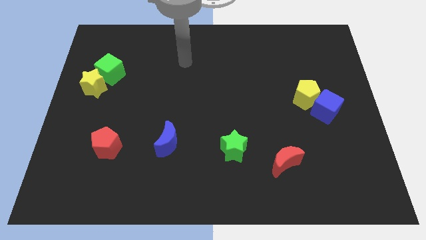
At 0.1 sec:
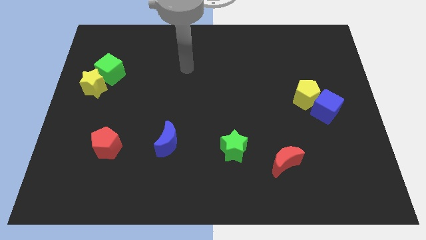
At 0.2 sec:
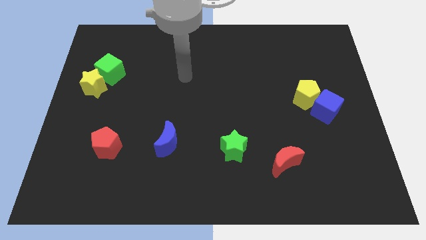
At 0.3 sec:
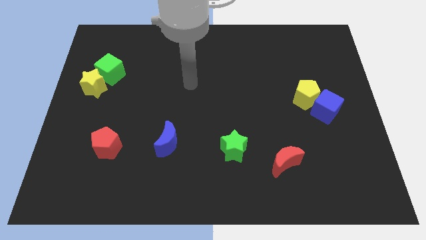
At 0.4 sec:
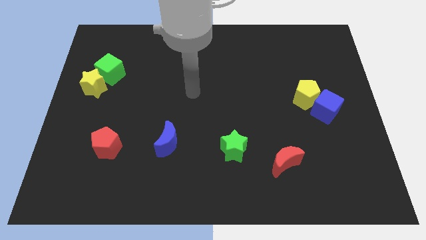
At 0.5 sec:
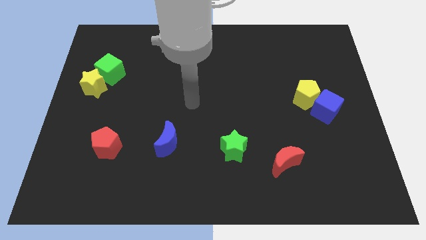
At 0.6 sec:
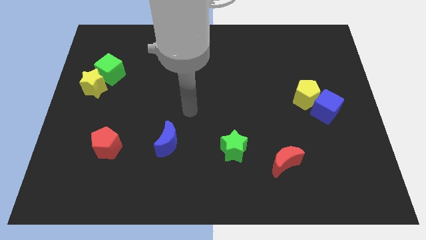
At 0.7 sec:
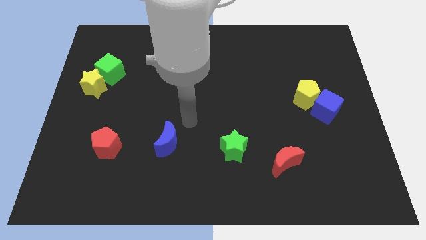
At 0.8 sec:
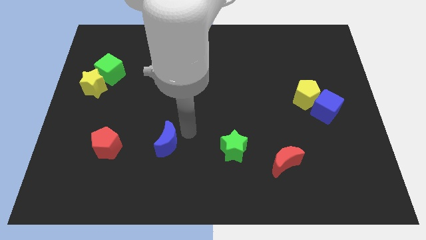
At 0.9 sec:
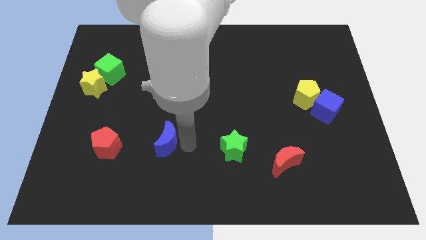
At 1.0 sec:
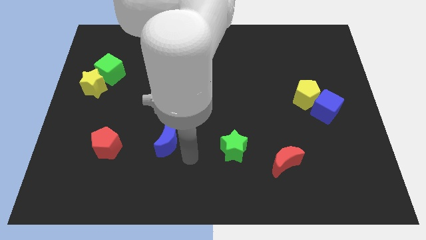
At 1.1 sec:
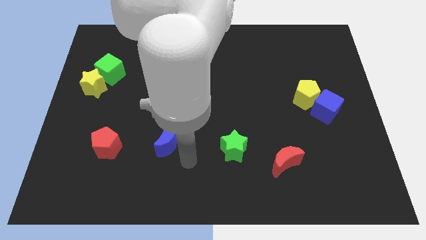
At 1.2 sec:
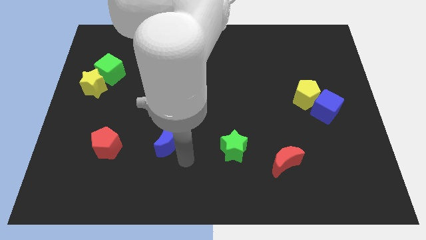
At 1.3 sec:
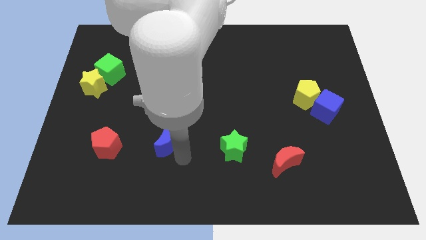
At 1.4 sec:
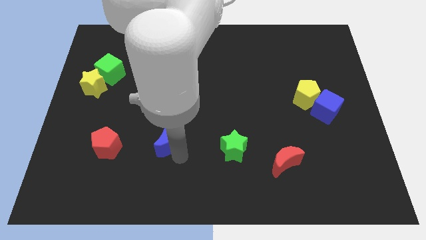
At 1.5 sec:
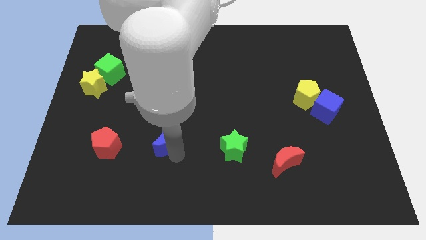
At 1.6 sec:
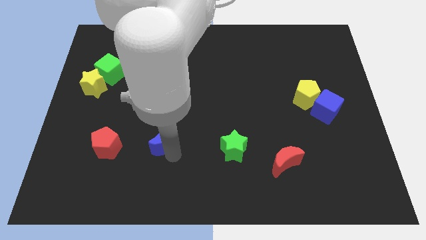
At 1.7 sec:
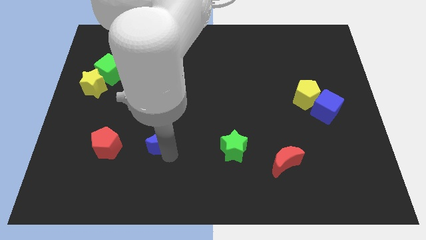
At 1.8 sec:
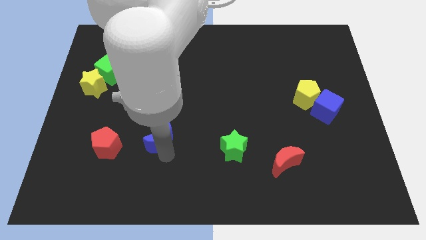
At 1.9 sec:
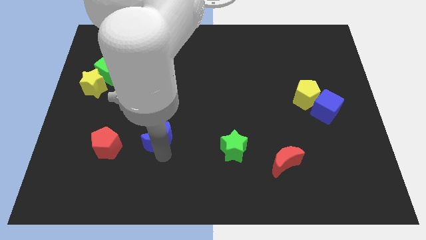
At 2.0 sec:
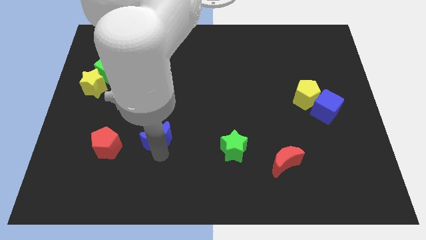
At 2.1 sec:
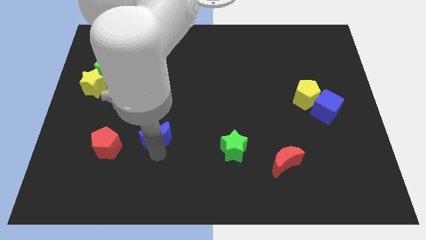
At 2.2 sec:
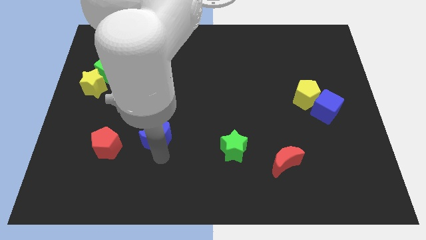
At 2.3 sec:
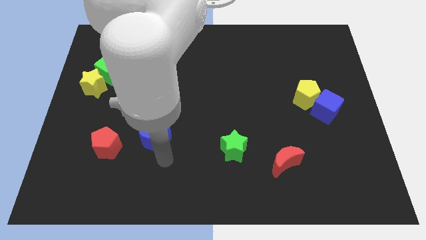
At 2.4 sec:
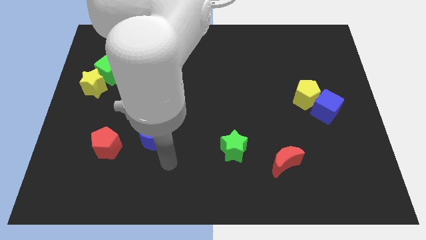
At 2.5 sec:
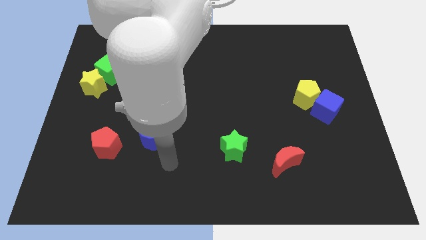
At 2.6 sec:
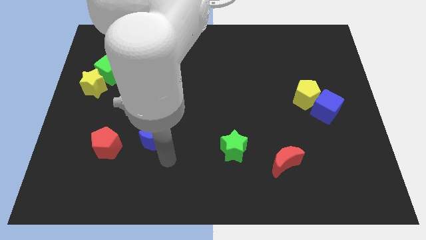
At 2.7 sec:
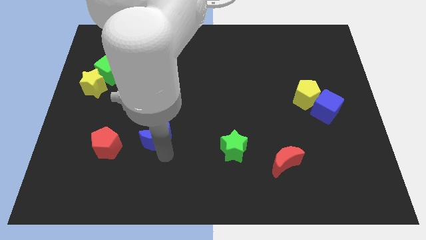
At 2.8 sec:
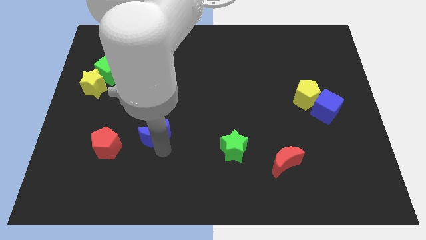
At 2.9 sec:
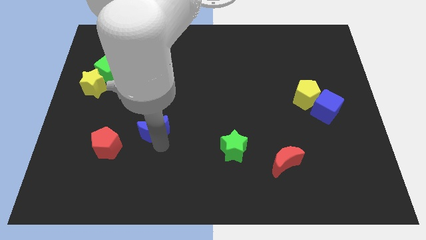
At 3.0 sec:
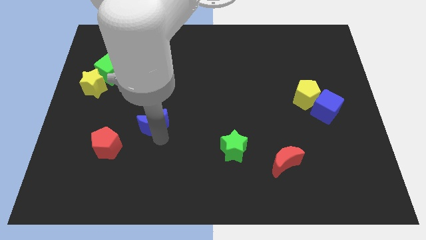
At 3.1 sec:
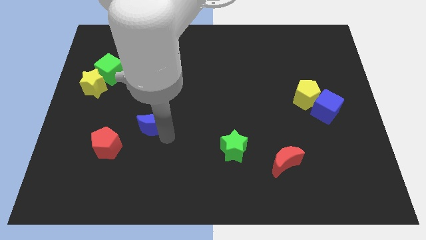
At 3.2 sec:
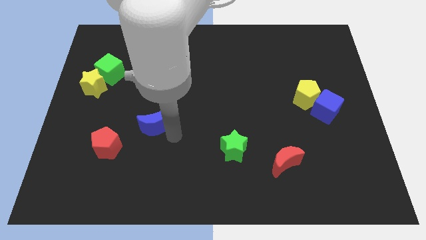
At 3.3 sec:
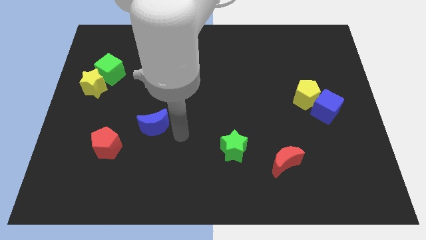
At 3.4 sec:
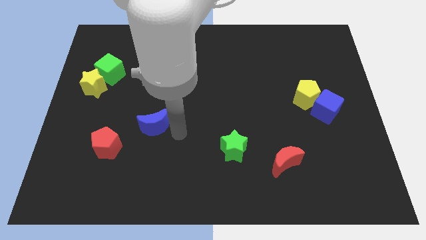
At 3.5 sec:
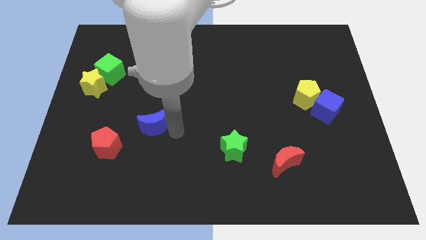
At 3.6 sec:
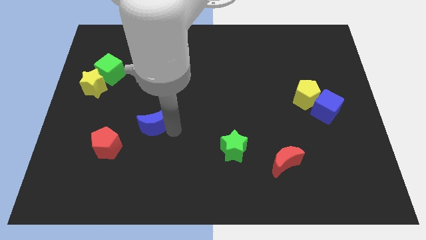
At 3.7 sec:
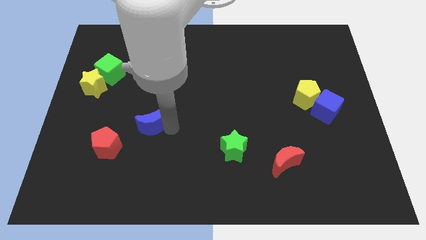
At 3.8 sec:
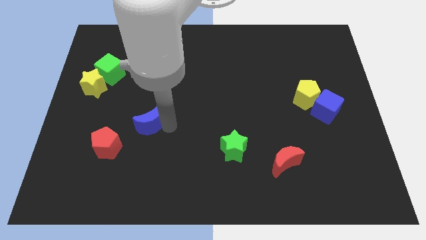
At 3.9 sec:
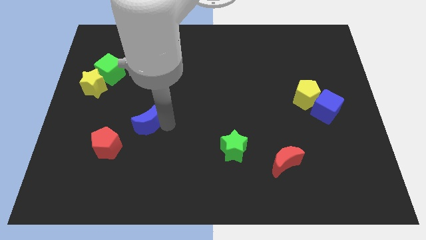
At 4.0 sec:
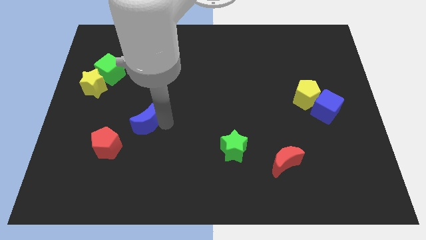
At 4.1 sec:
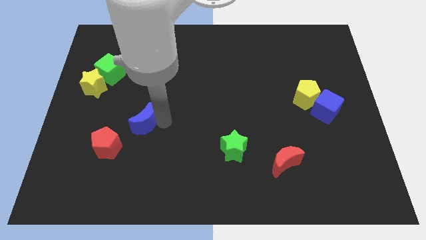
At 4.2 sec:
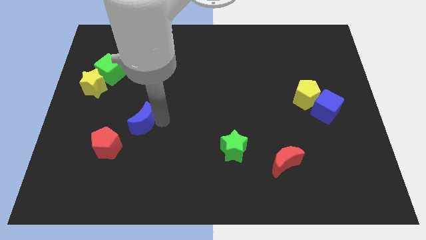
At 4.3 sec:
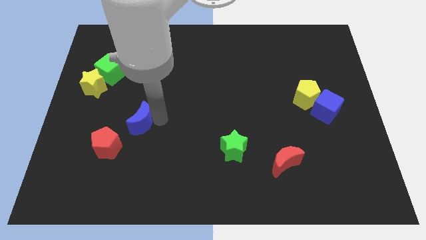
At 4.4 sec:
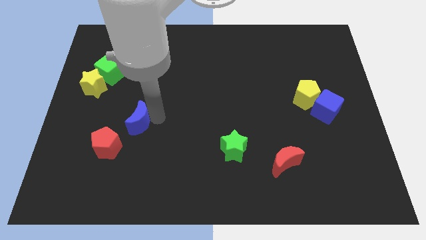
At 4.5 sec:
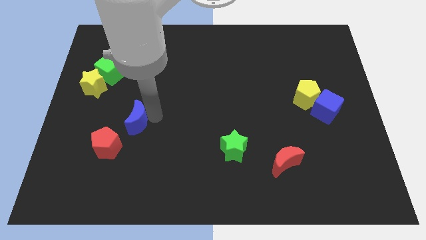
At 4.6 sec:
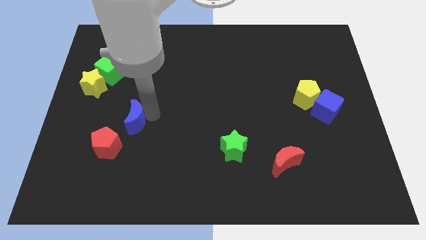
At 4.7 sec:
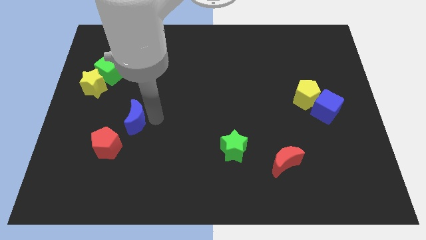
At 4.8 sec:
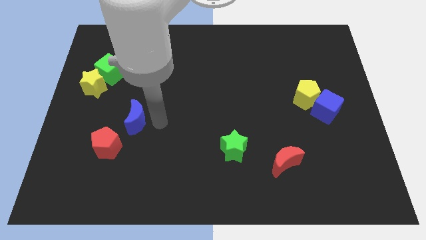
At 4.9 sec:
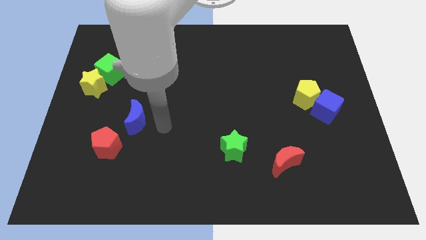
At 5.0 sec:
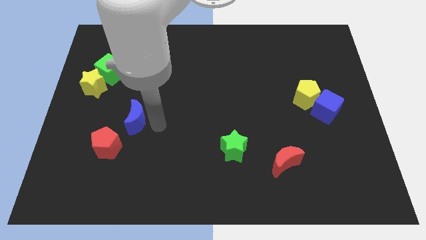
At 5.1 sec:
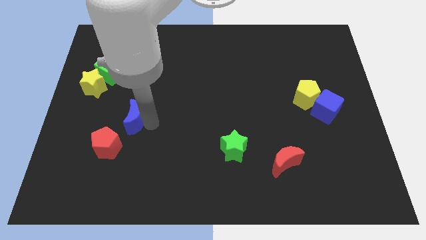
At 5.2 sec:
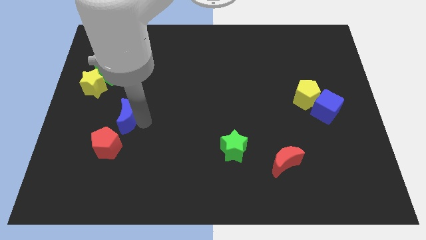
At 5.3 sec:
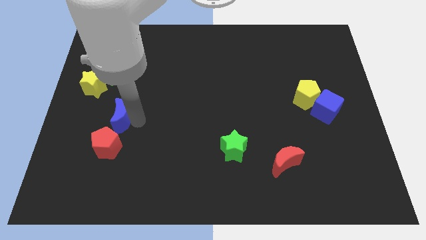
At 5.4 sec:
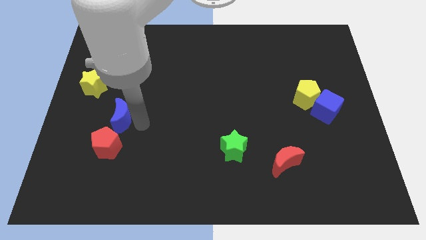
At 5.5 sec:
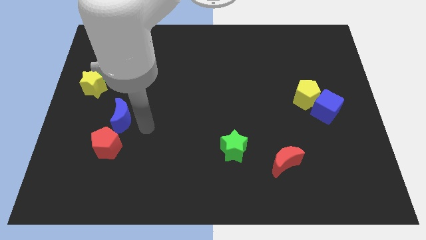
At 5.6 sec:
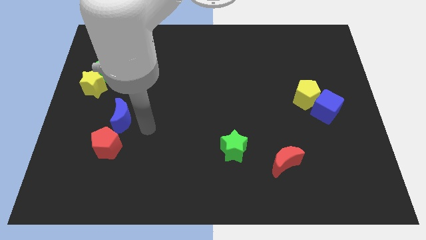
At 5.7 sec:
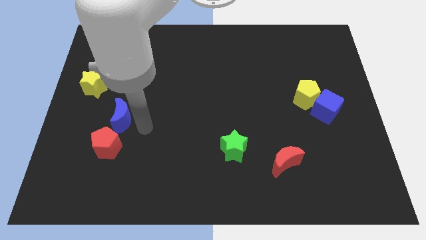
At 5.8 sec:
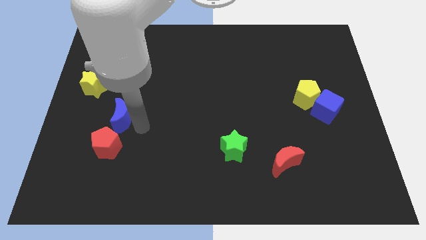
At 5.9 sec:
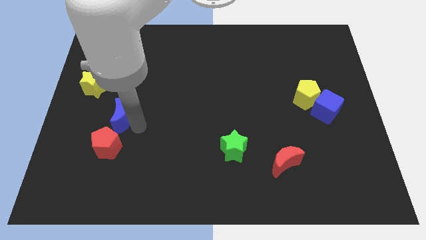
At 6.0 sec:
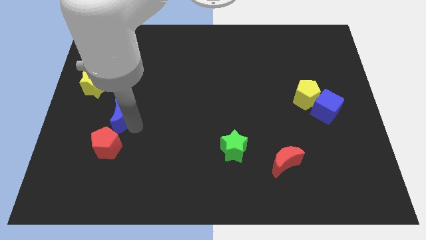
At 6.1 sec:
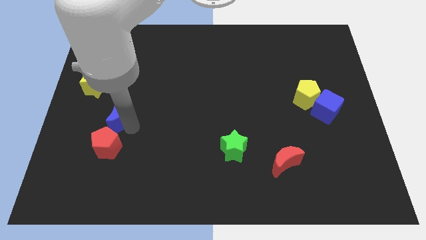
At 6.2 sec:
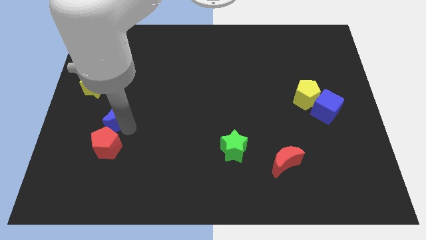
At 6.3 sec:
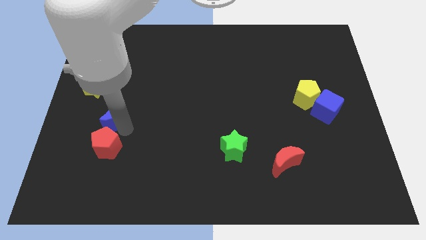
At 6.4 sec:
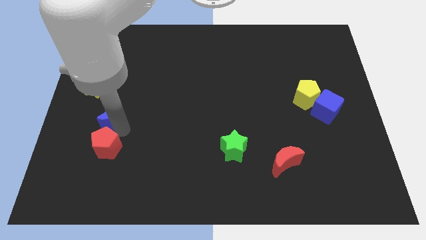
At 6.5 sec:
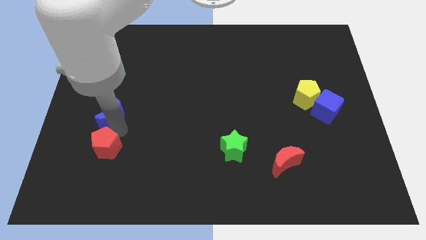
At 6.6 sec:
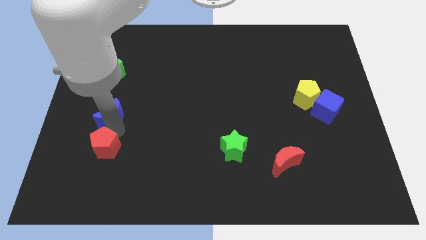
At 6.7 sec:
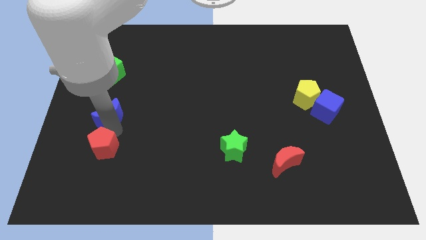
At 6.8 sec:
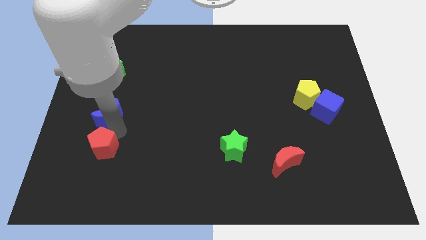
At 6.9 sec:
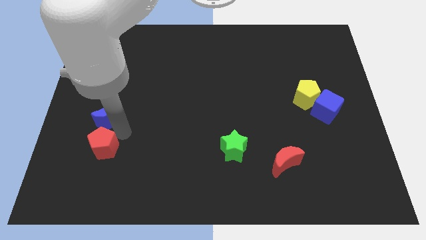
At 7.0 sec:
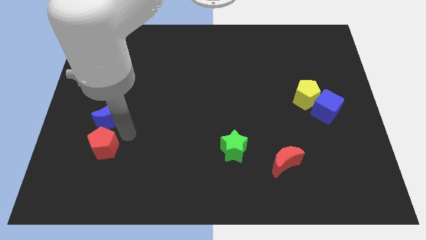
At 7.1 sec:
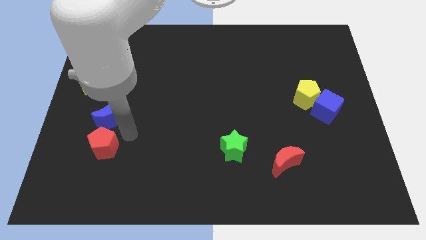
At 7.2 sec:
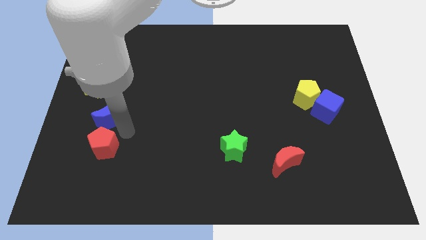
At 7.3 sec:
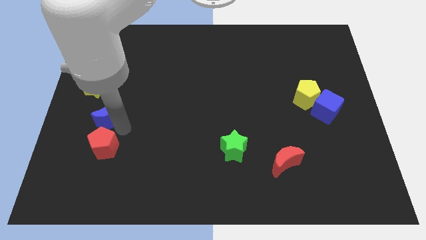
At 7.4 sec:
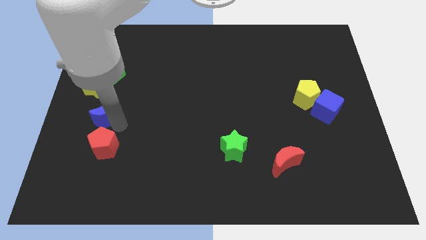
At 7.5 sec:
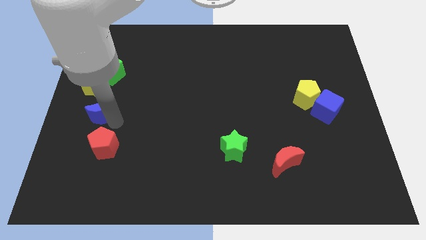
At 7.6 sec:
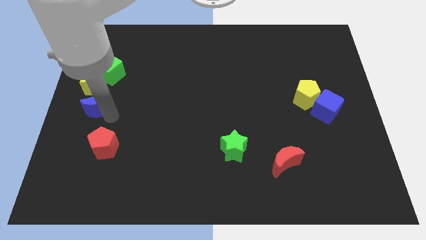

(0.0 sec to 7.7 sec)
slide the blue moon to the left side
